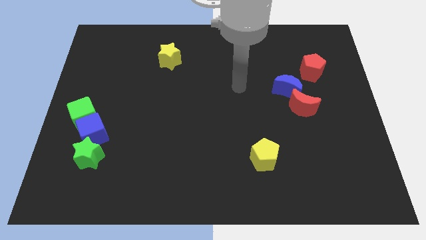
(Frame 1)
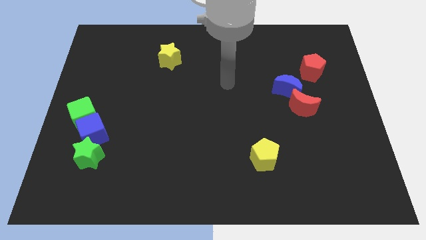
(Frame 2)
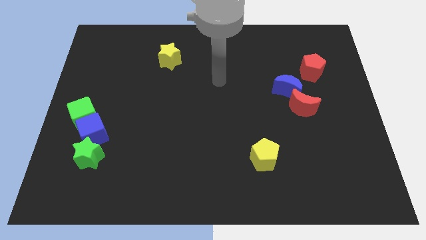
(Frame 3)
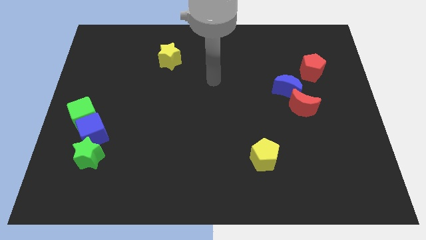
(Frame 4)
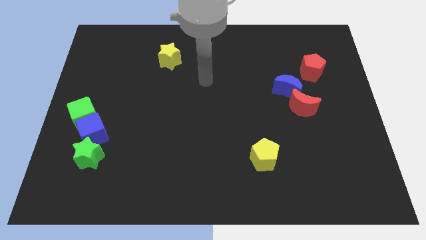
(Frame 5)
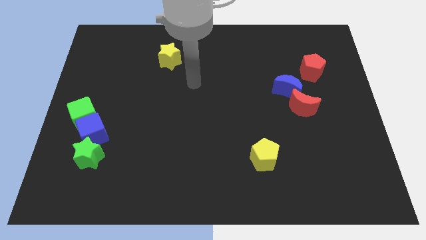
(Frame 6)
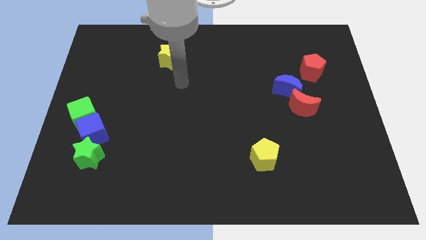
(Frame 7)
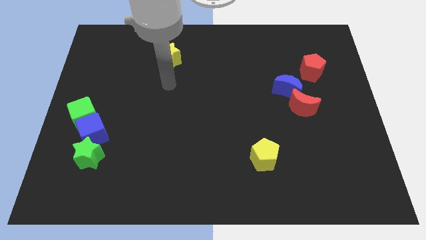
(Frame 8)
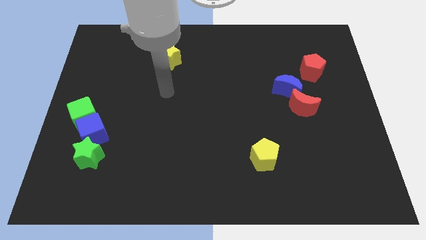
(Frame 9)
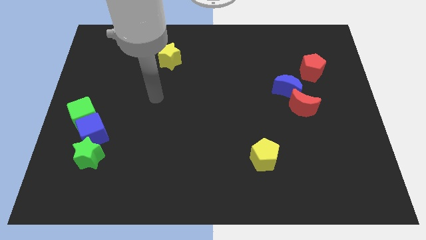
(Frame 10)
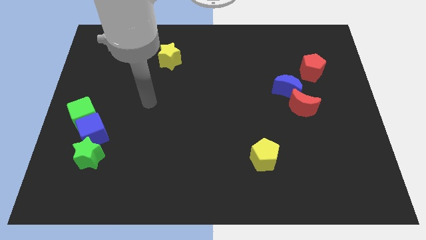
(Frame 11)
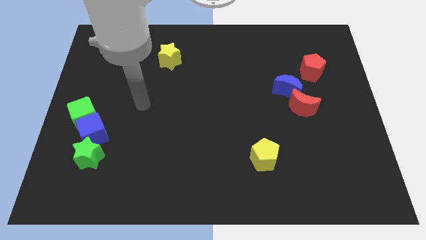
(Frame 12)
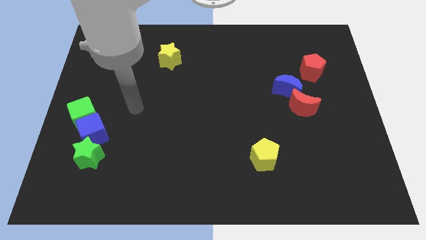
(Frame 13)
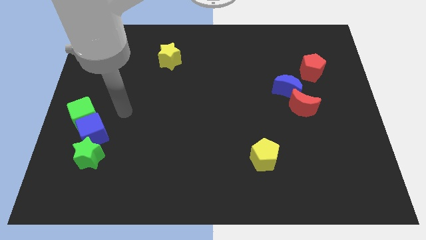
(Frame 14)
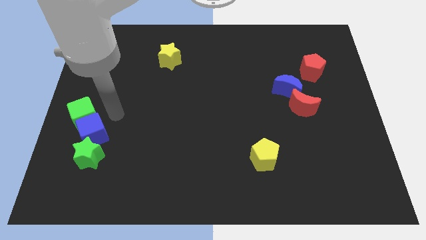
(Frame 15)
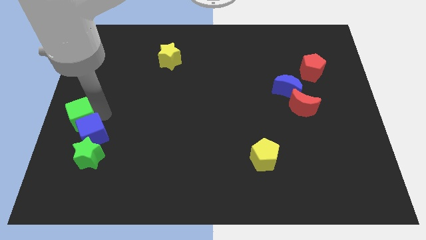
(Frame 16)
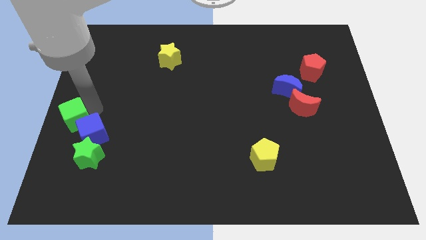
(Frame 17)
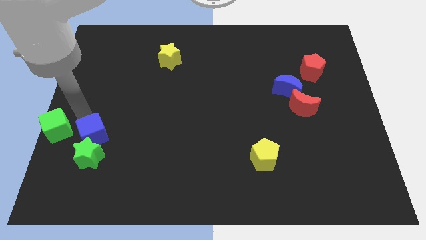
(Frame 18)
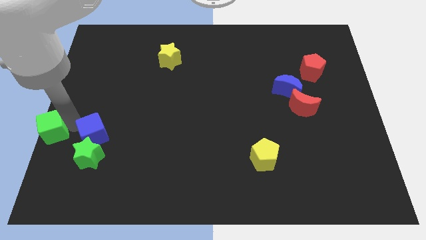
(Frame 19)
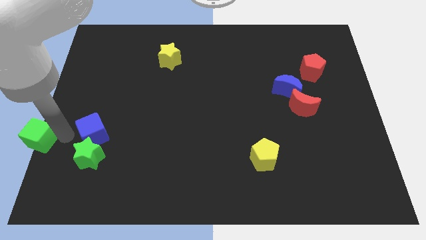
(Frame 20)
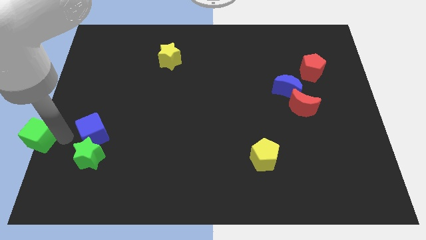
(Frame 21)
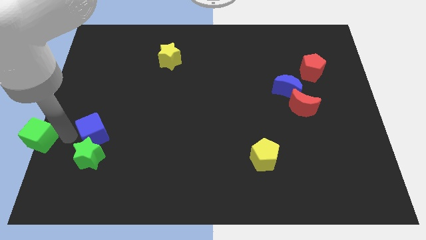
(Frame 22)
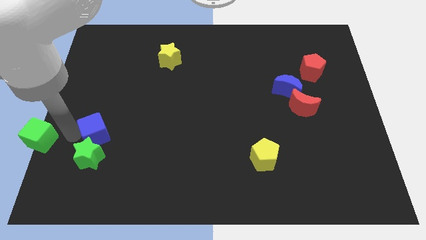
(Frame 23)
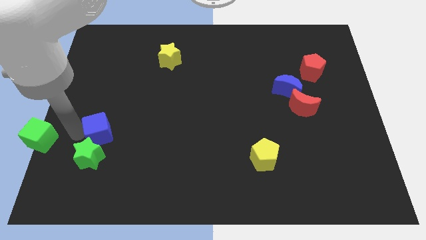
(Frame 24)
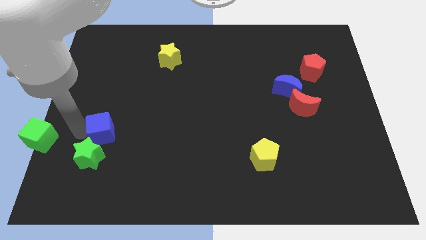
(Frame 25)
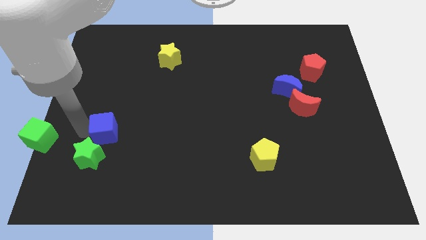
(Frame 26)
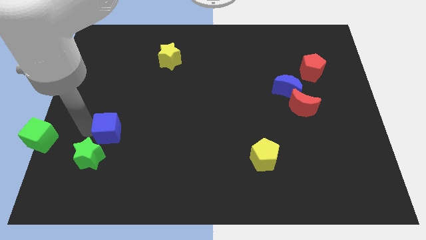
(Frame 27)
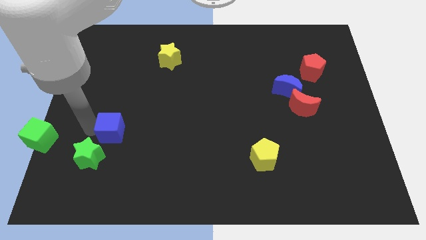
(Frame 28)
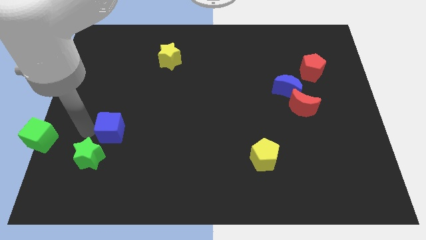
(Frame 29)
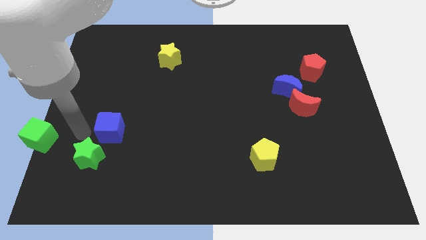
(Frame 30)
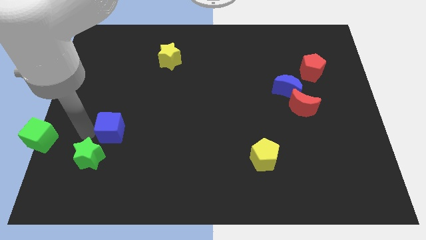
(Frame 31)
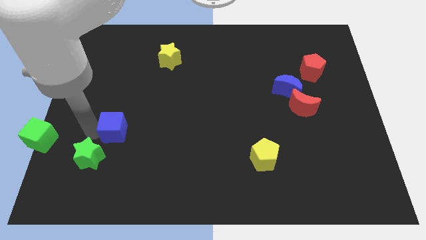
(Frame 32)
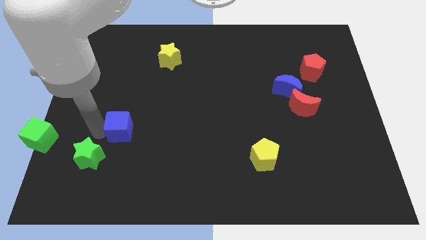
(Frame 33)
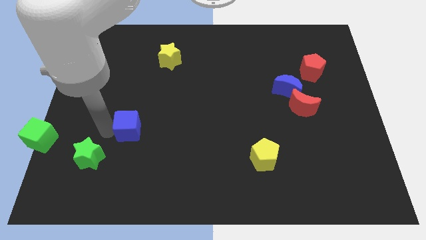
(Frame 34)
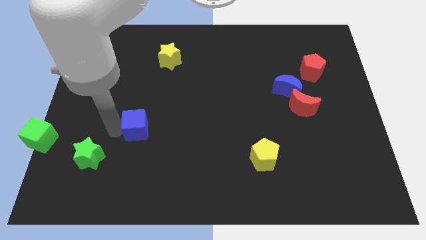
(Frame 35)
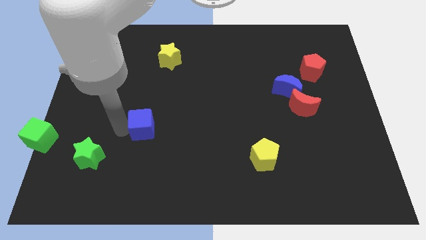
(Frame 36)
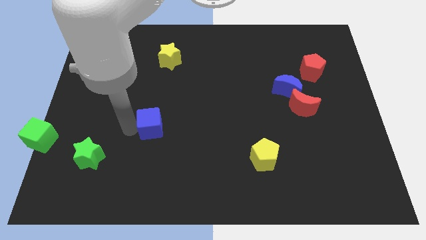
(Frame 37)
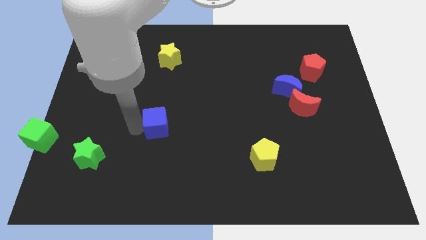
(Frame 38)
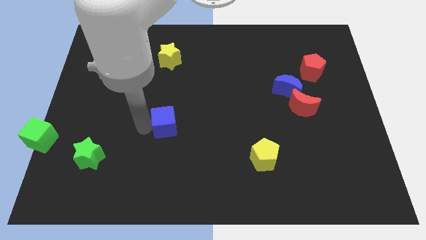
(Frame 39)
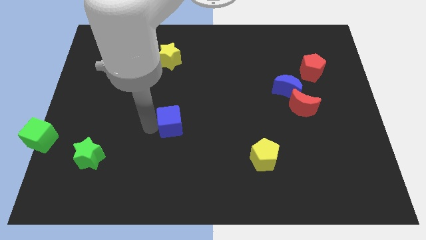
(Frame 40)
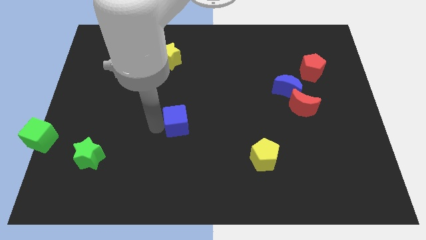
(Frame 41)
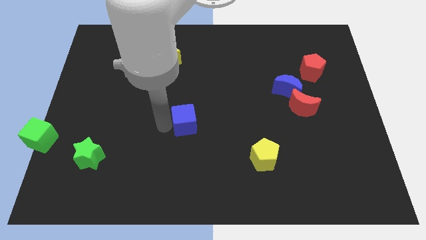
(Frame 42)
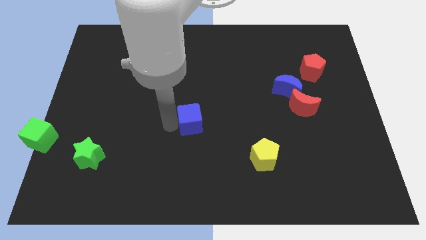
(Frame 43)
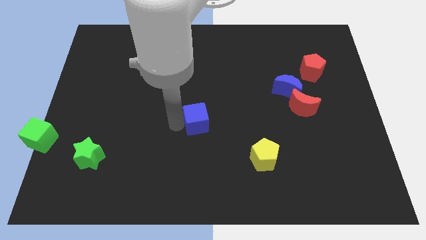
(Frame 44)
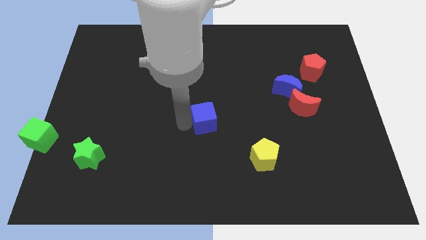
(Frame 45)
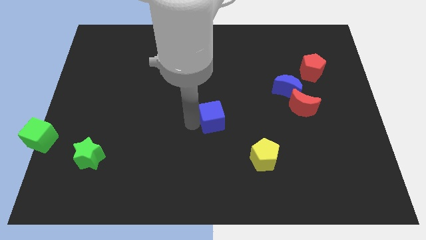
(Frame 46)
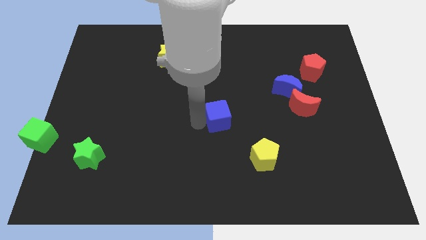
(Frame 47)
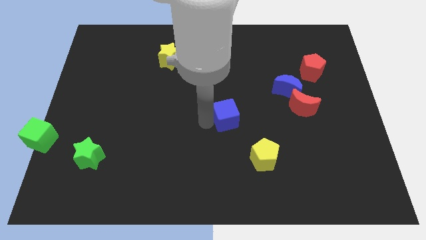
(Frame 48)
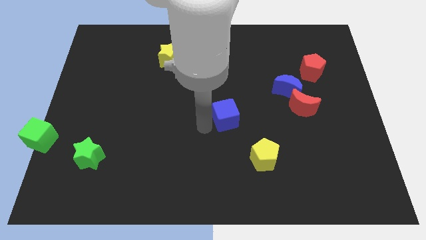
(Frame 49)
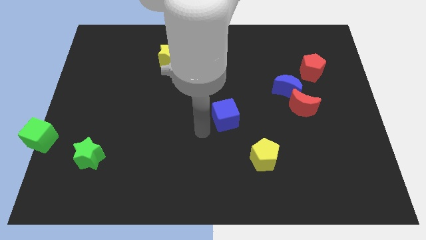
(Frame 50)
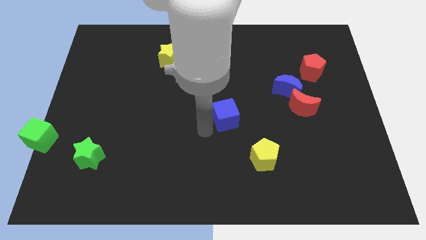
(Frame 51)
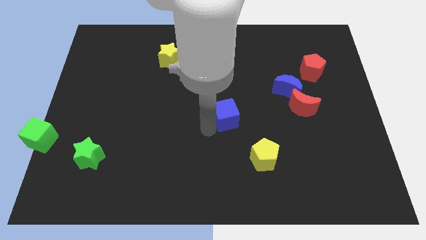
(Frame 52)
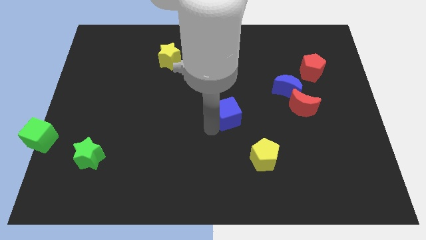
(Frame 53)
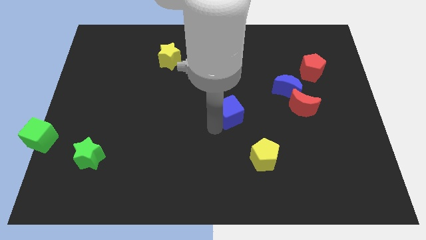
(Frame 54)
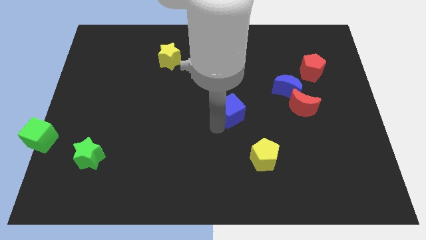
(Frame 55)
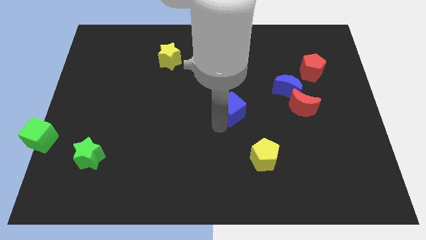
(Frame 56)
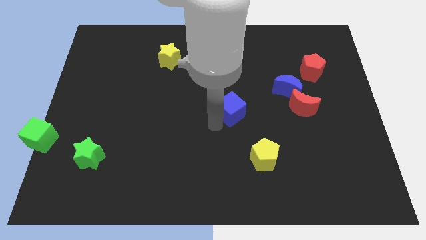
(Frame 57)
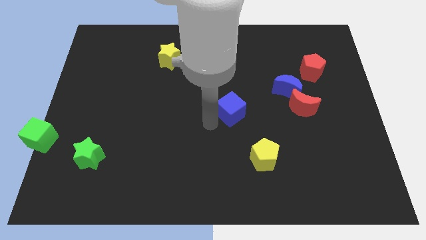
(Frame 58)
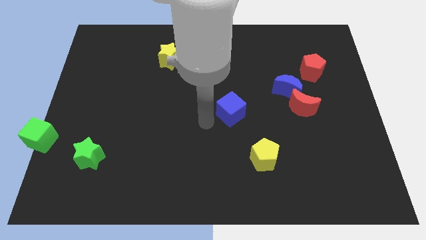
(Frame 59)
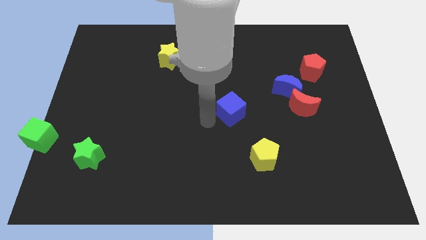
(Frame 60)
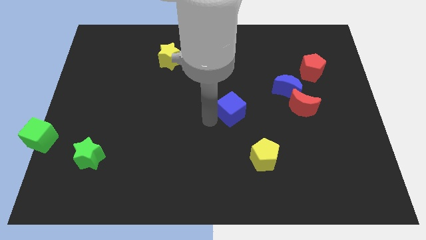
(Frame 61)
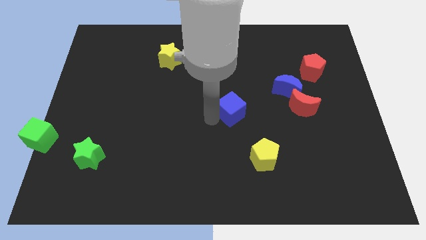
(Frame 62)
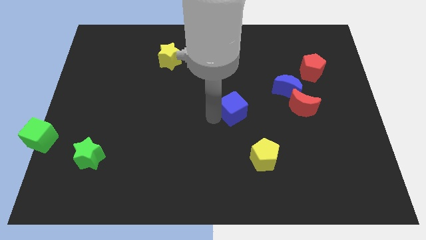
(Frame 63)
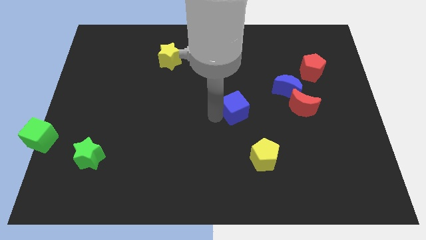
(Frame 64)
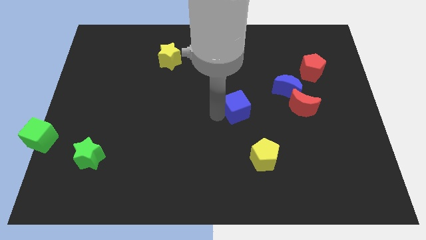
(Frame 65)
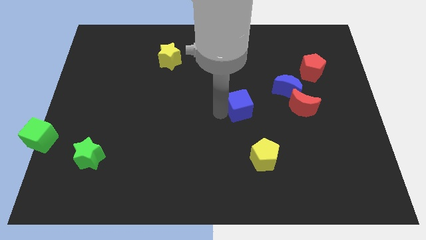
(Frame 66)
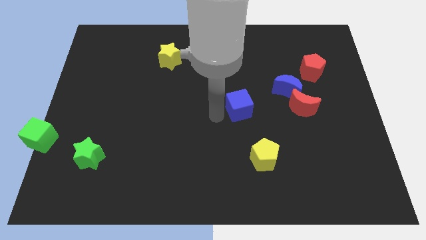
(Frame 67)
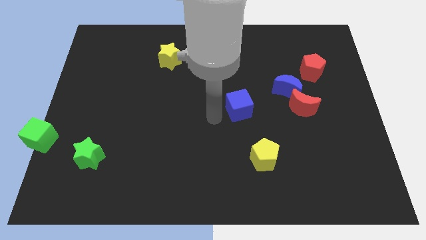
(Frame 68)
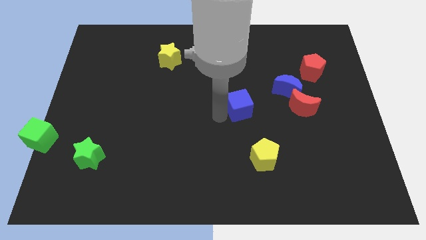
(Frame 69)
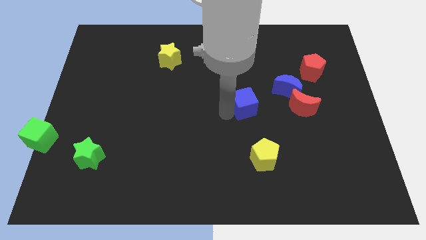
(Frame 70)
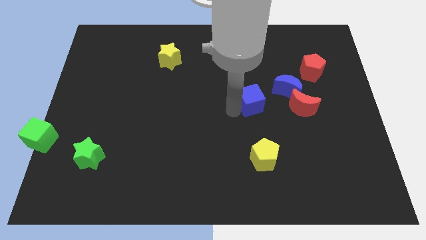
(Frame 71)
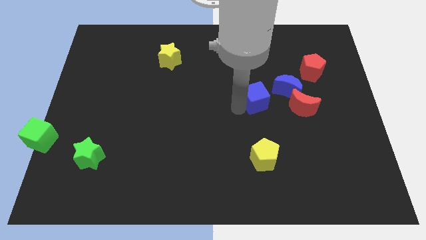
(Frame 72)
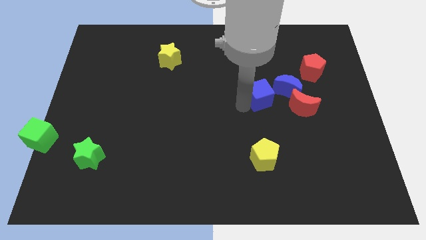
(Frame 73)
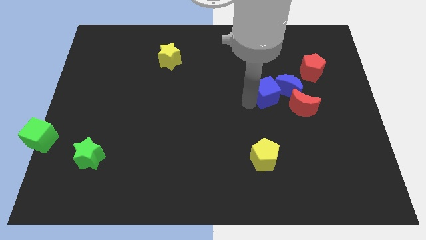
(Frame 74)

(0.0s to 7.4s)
put the blue cube to the blue moon
